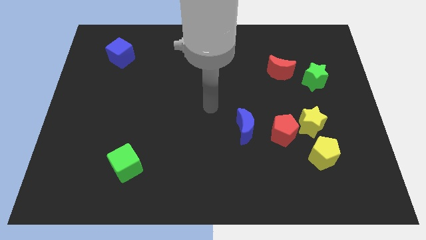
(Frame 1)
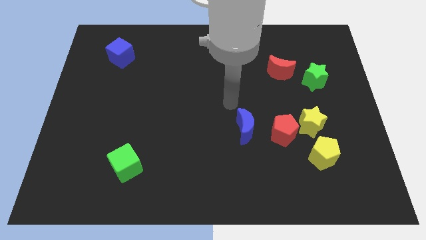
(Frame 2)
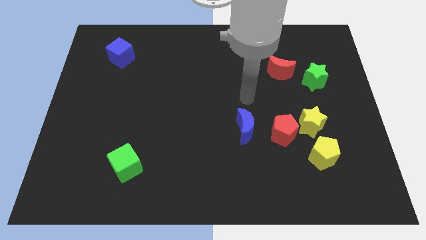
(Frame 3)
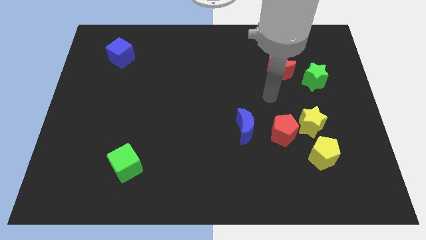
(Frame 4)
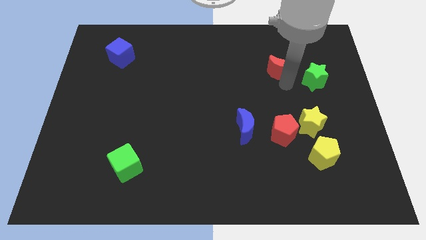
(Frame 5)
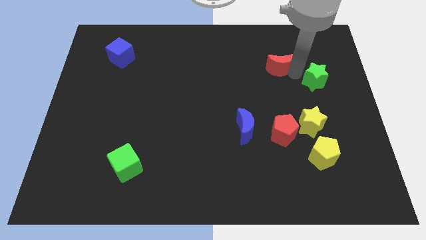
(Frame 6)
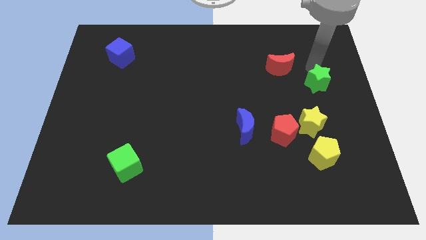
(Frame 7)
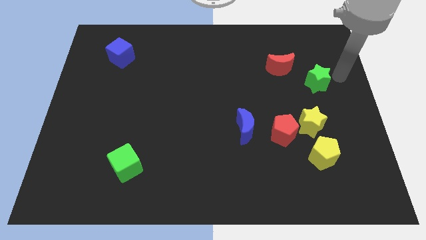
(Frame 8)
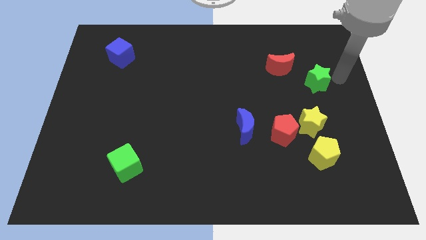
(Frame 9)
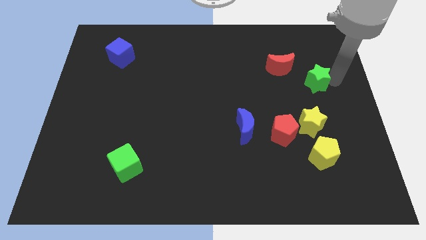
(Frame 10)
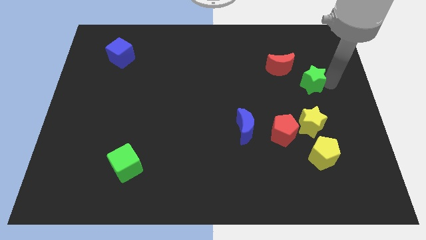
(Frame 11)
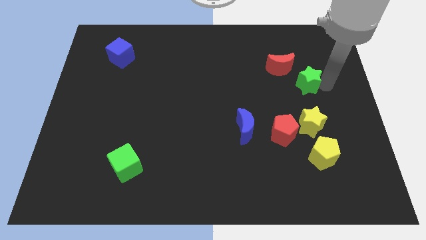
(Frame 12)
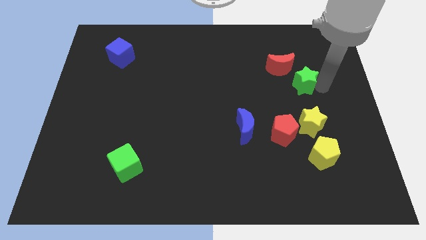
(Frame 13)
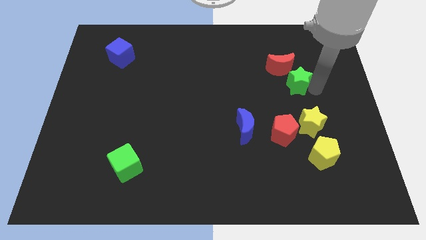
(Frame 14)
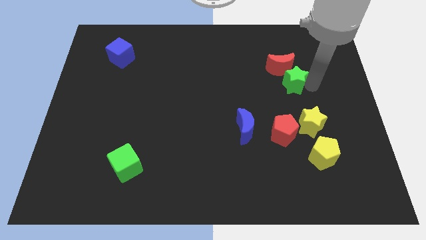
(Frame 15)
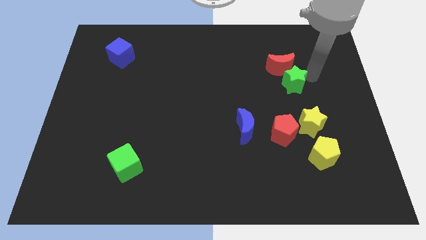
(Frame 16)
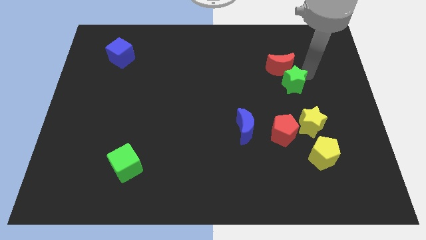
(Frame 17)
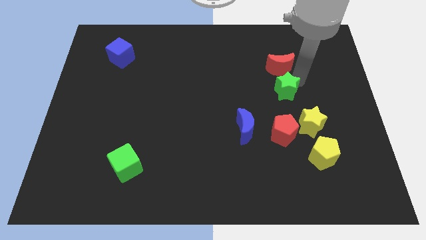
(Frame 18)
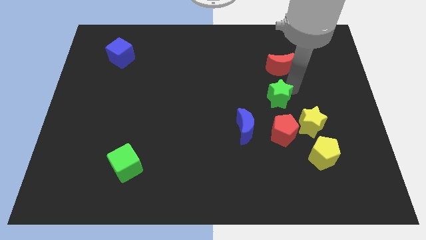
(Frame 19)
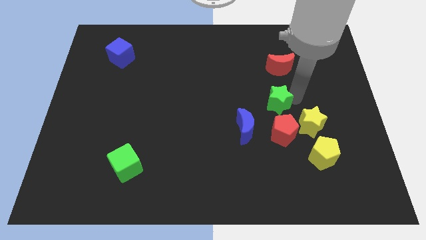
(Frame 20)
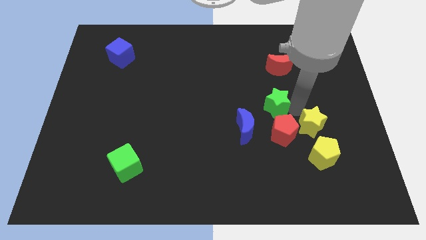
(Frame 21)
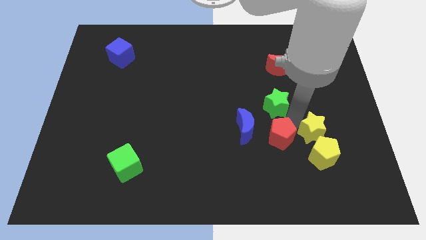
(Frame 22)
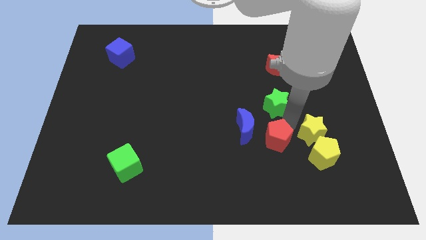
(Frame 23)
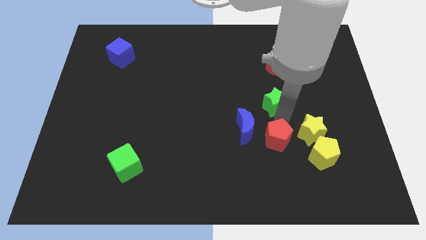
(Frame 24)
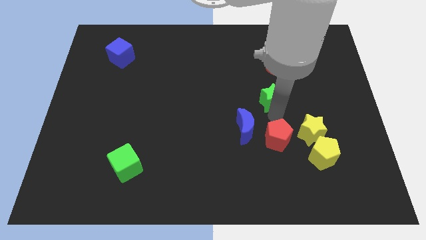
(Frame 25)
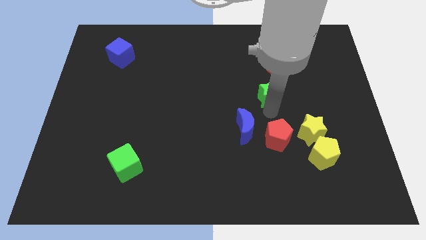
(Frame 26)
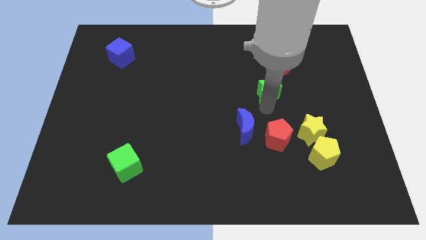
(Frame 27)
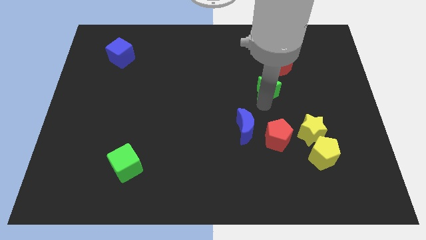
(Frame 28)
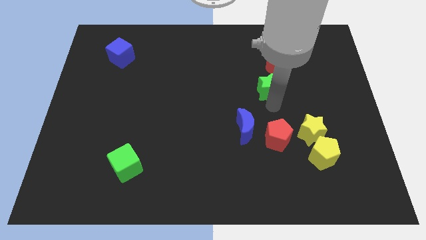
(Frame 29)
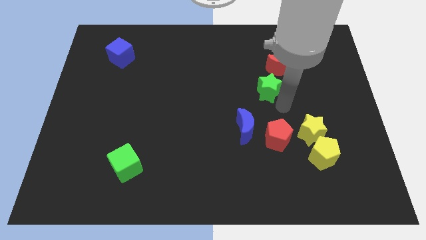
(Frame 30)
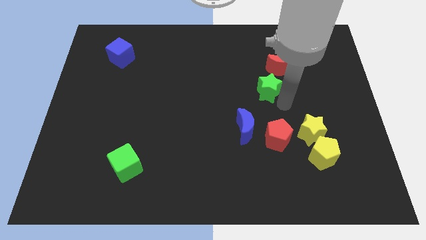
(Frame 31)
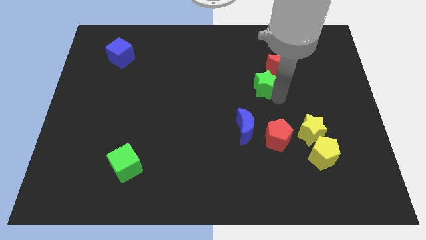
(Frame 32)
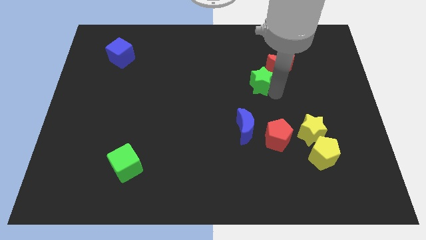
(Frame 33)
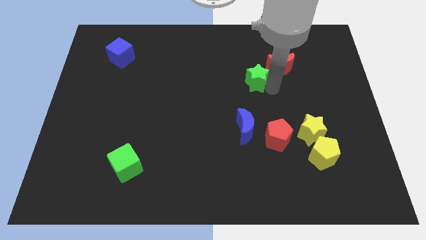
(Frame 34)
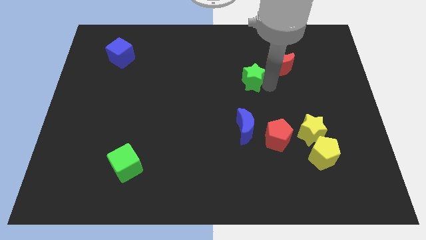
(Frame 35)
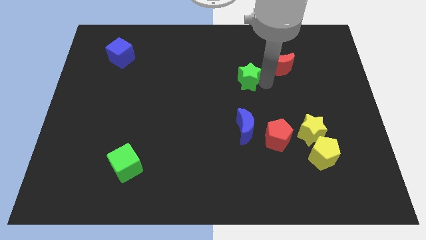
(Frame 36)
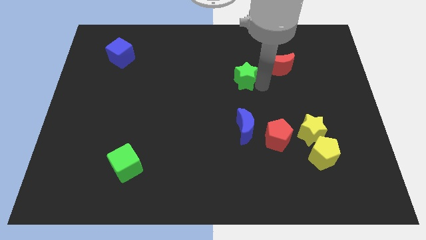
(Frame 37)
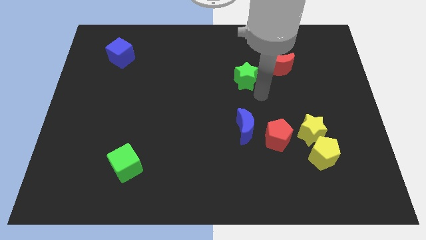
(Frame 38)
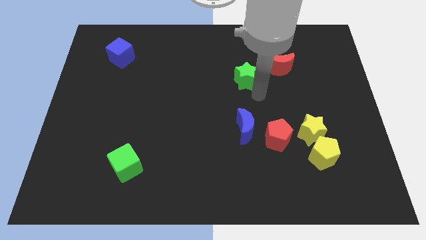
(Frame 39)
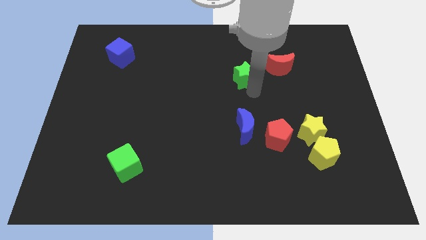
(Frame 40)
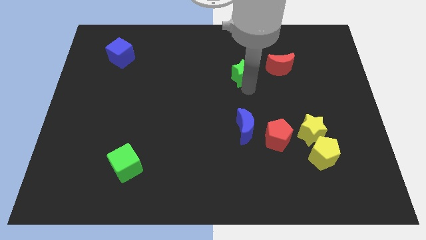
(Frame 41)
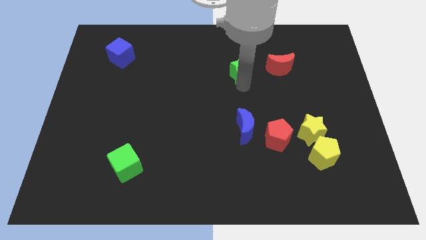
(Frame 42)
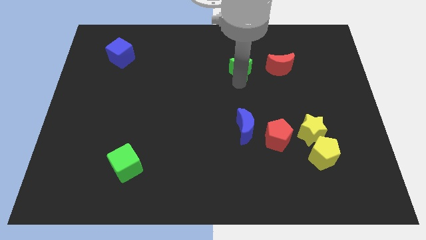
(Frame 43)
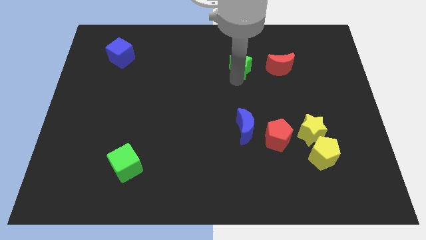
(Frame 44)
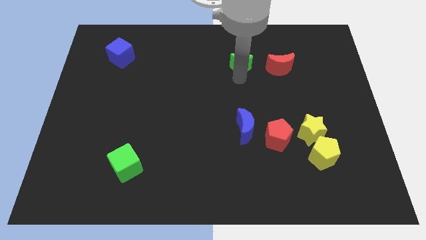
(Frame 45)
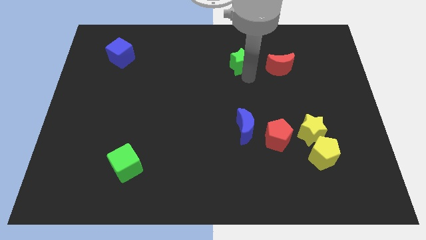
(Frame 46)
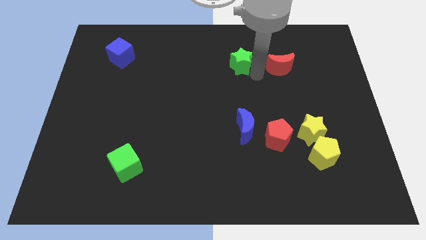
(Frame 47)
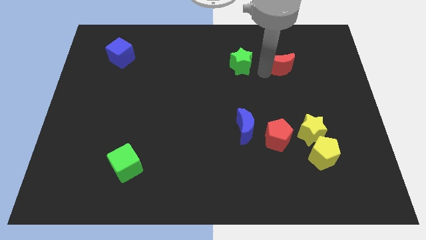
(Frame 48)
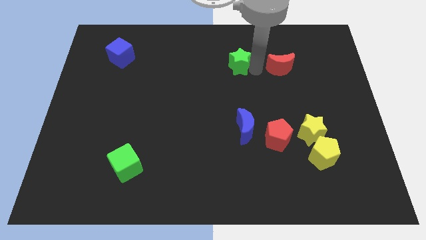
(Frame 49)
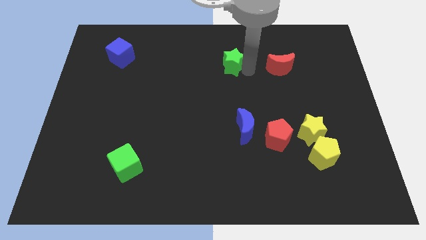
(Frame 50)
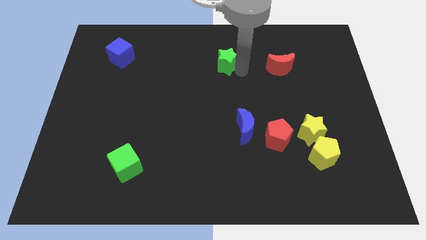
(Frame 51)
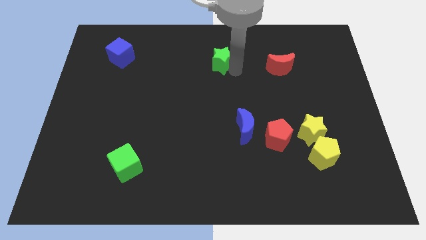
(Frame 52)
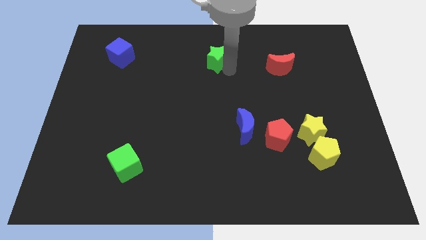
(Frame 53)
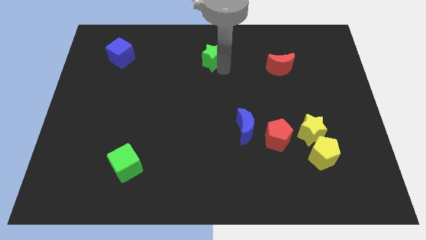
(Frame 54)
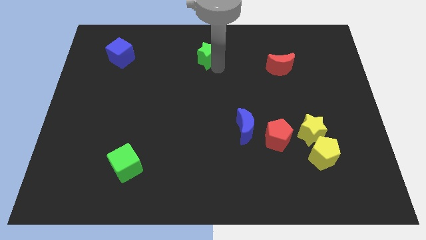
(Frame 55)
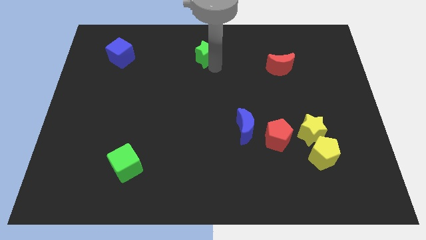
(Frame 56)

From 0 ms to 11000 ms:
slide the green star to the towards your base

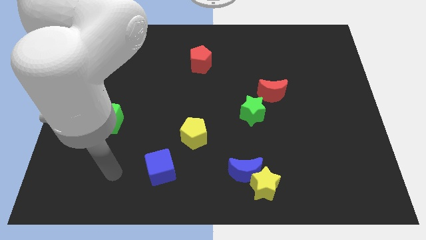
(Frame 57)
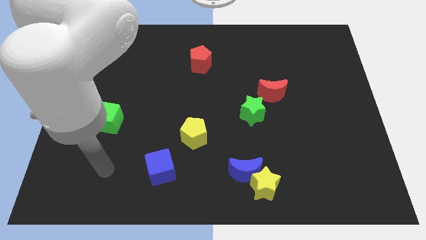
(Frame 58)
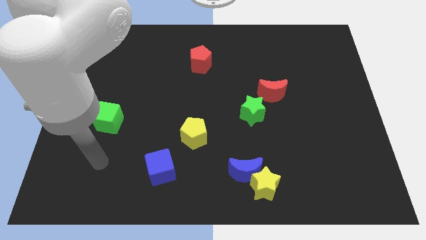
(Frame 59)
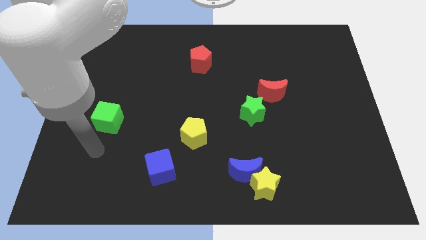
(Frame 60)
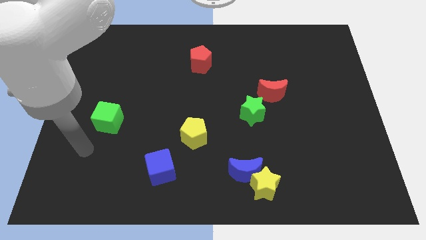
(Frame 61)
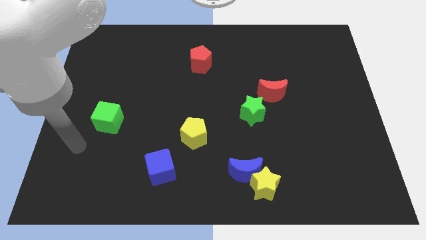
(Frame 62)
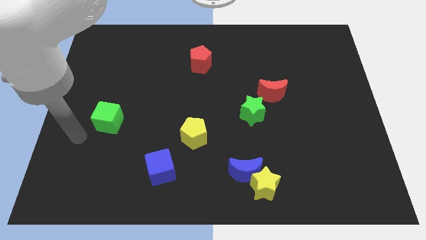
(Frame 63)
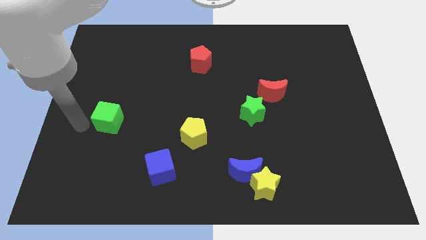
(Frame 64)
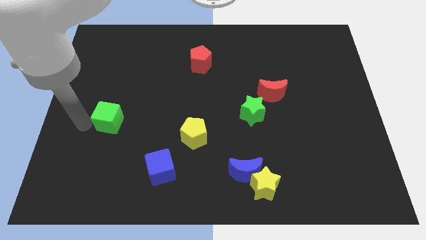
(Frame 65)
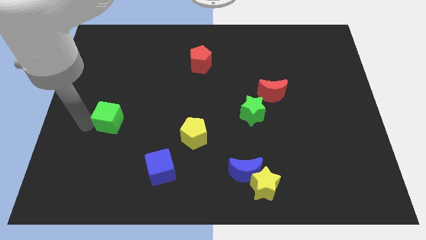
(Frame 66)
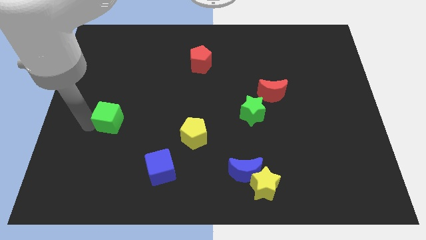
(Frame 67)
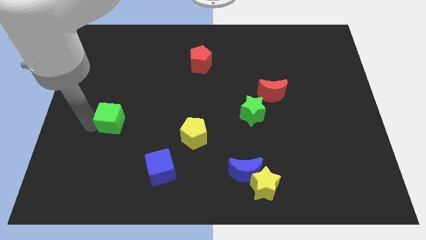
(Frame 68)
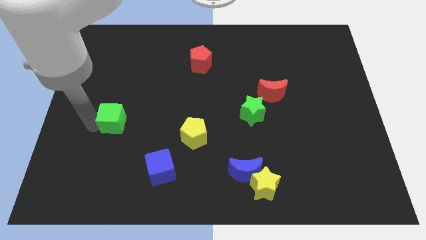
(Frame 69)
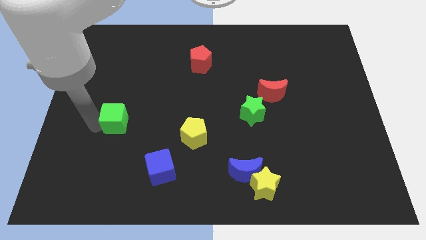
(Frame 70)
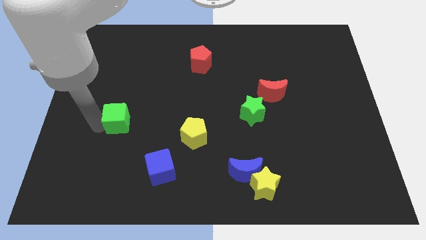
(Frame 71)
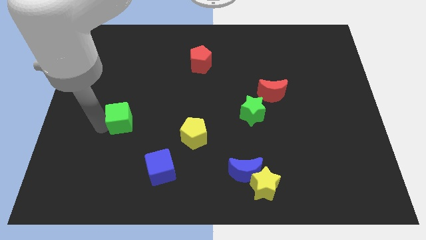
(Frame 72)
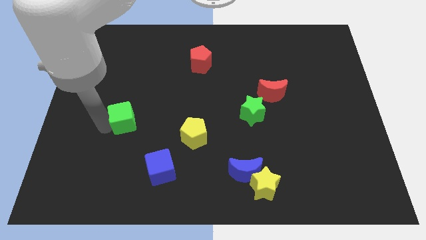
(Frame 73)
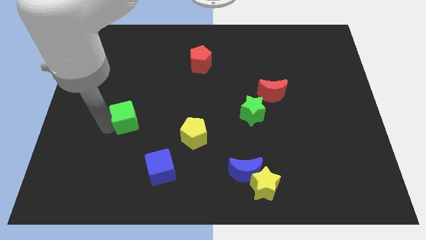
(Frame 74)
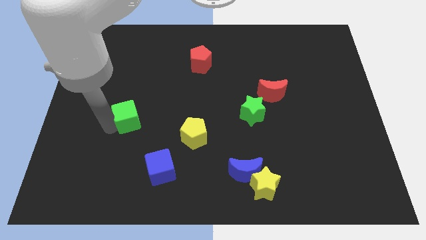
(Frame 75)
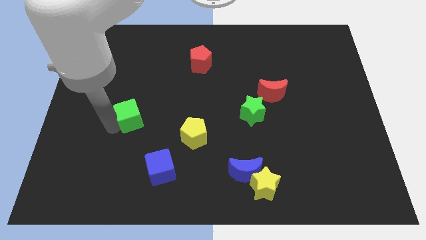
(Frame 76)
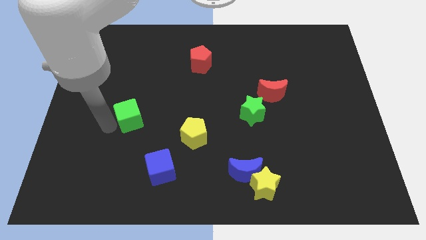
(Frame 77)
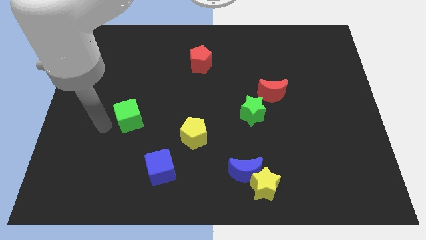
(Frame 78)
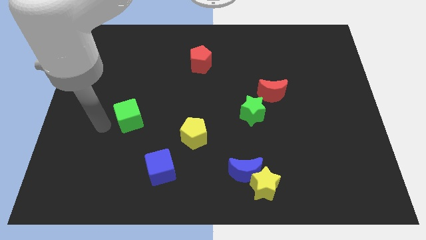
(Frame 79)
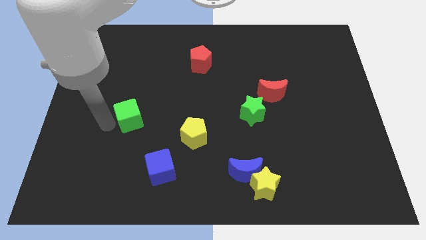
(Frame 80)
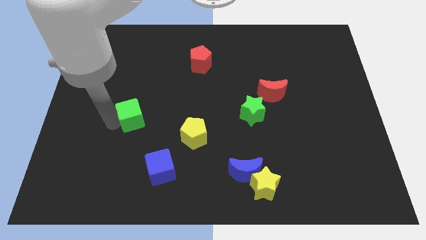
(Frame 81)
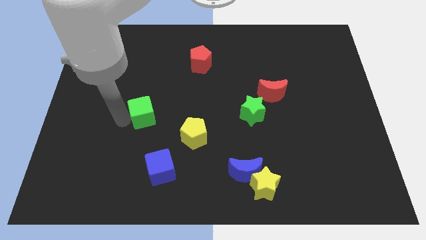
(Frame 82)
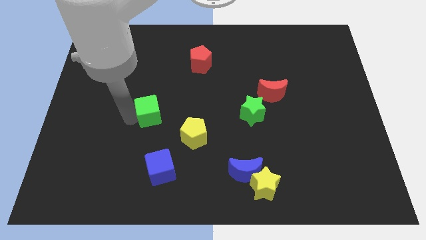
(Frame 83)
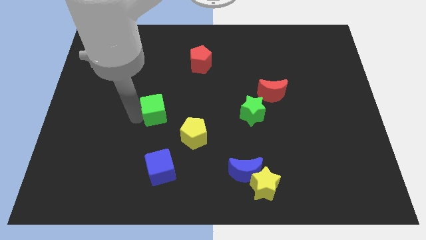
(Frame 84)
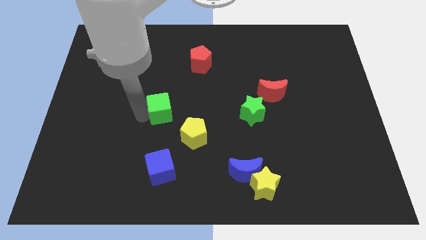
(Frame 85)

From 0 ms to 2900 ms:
push the green cube to the middle of the board
